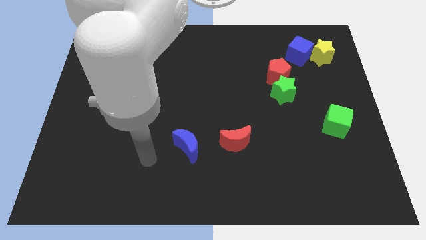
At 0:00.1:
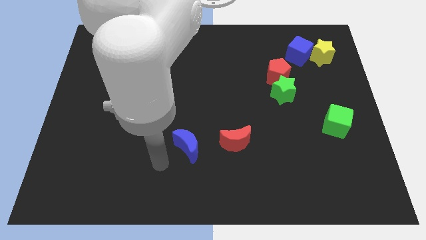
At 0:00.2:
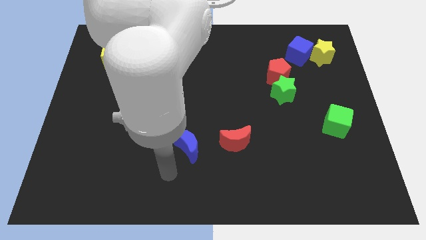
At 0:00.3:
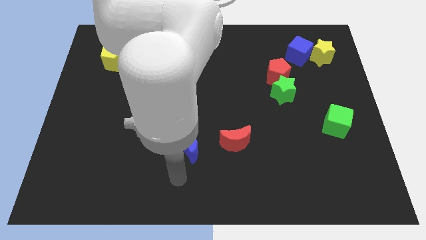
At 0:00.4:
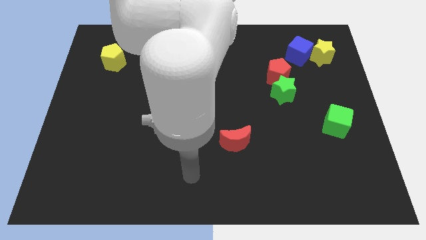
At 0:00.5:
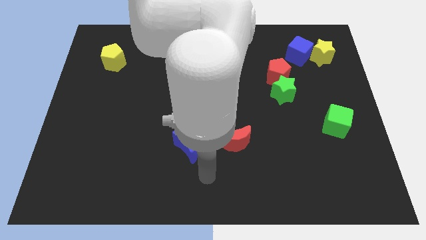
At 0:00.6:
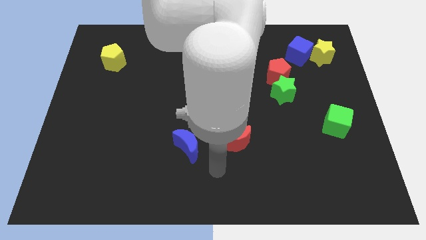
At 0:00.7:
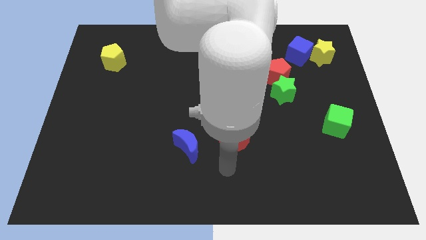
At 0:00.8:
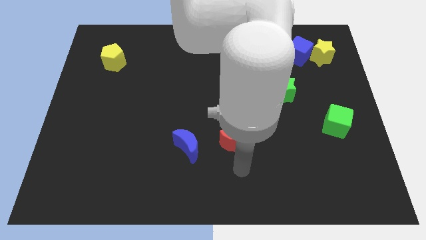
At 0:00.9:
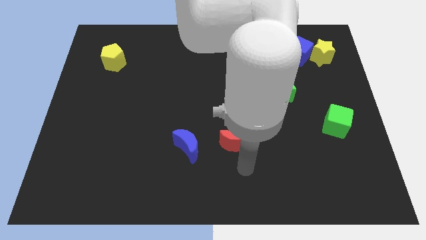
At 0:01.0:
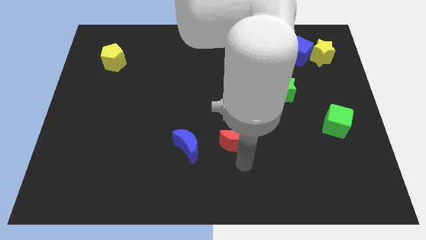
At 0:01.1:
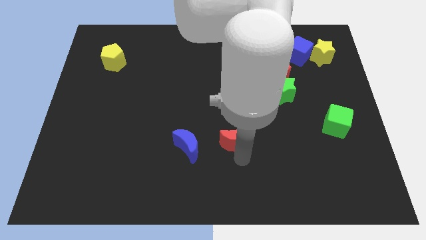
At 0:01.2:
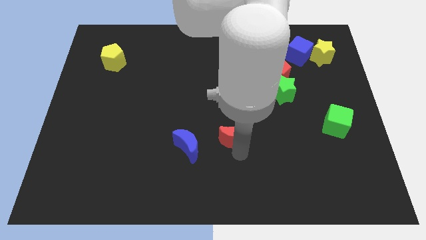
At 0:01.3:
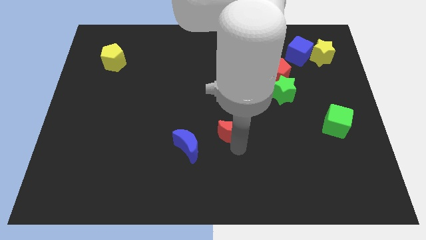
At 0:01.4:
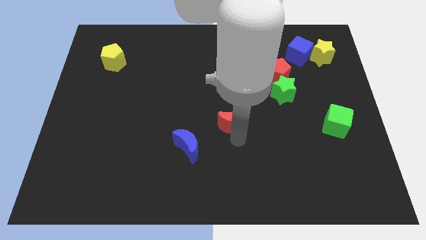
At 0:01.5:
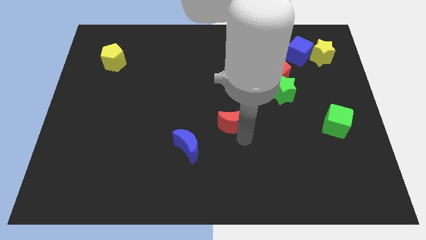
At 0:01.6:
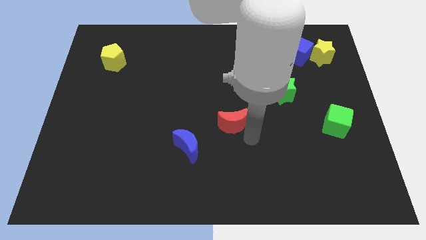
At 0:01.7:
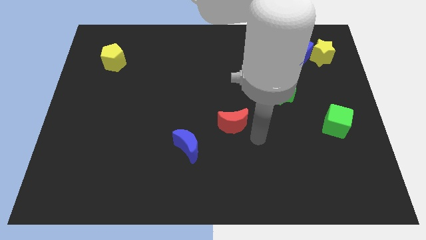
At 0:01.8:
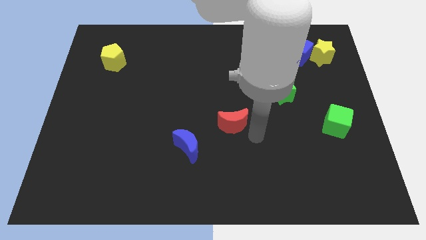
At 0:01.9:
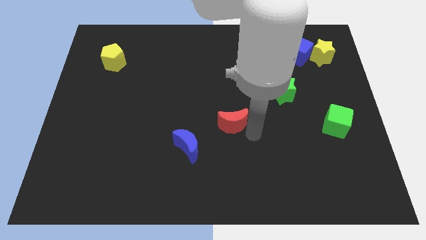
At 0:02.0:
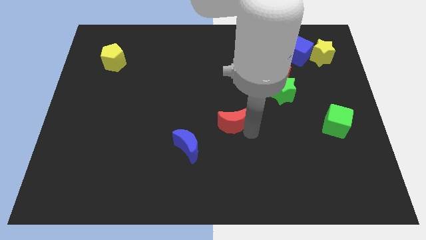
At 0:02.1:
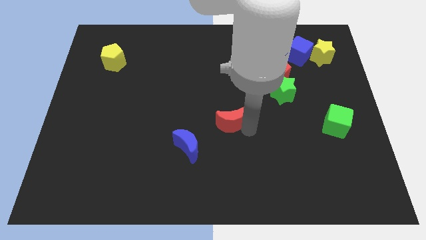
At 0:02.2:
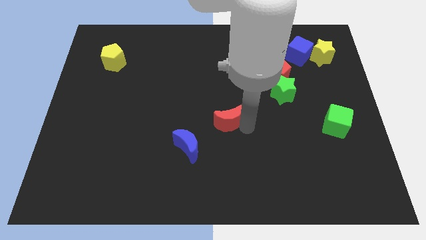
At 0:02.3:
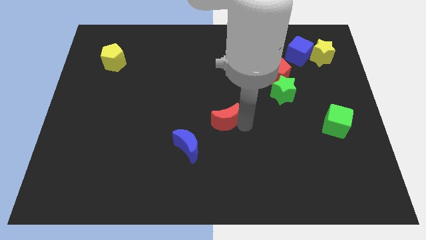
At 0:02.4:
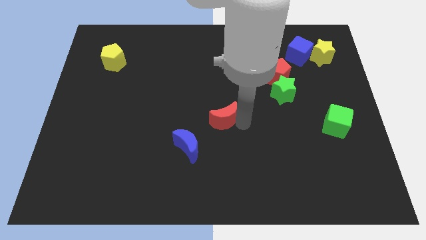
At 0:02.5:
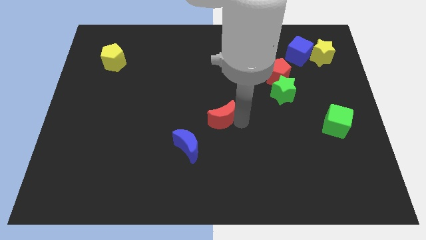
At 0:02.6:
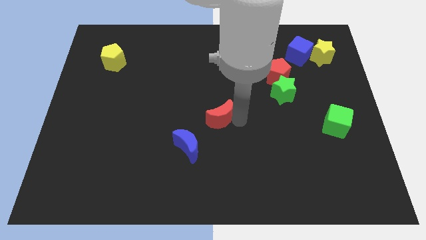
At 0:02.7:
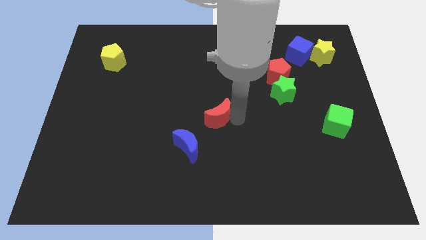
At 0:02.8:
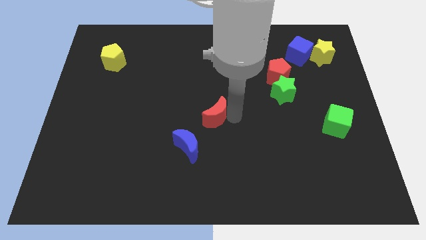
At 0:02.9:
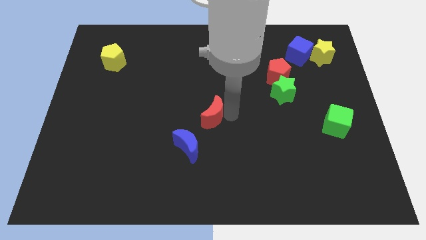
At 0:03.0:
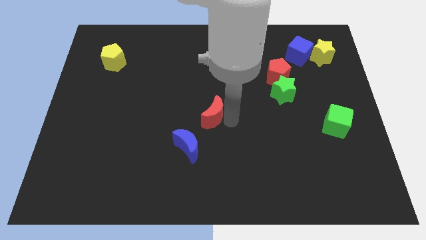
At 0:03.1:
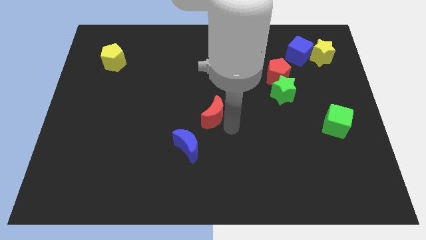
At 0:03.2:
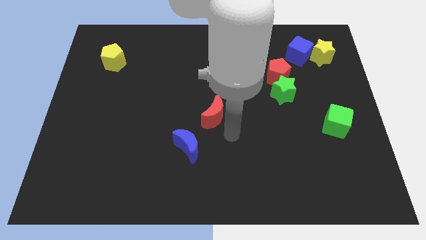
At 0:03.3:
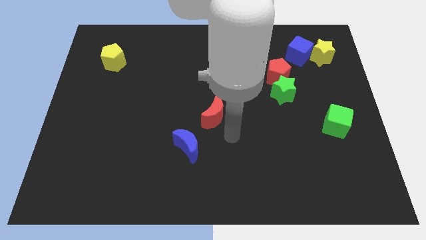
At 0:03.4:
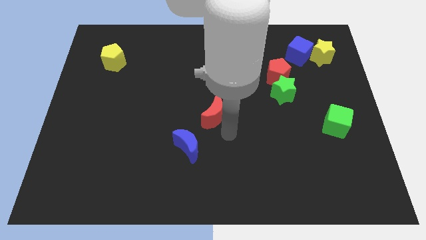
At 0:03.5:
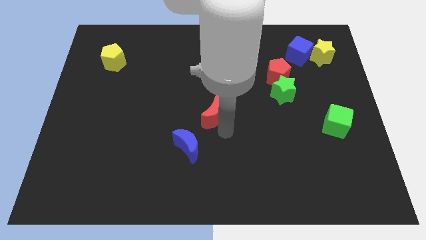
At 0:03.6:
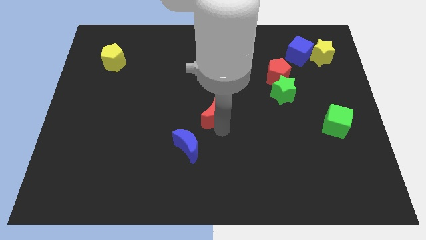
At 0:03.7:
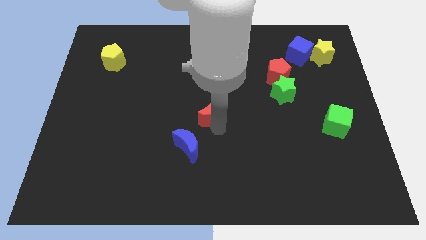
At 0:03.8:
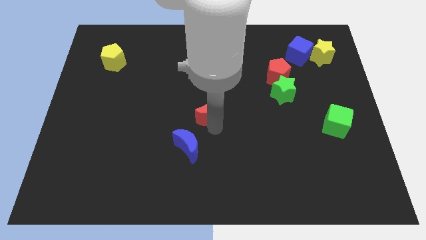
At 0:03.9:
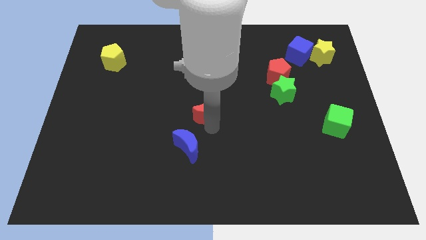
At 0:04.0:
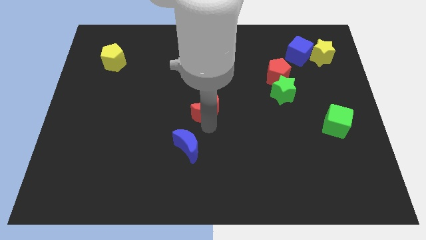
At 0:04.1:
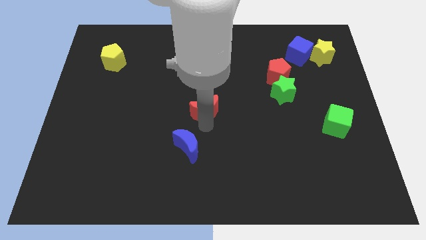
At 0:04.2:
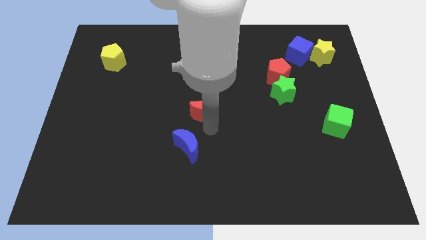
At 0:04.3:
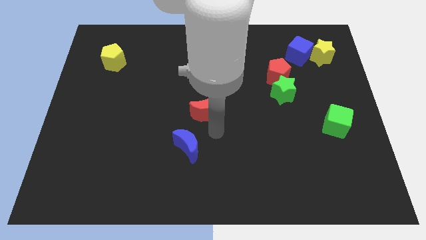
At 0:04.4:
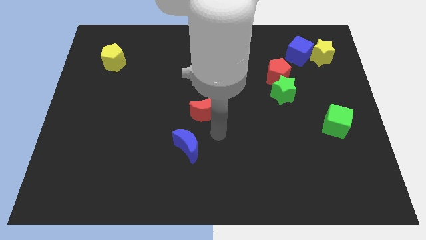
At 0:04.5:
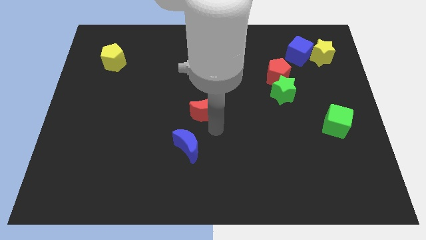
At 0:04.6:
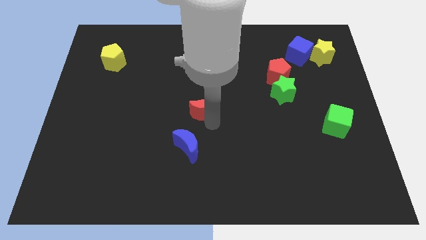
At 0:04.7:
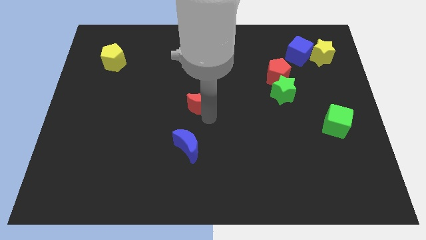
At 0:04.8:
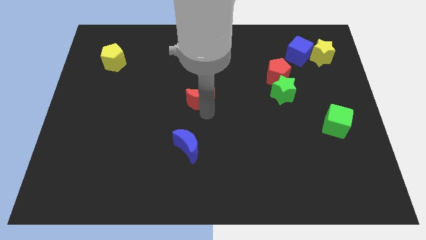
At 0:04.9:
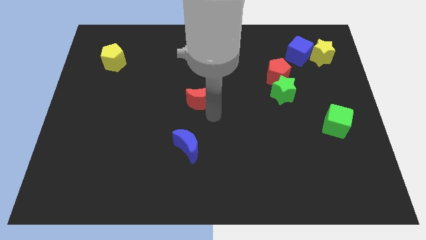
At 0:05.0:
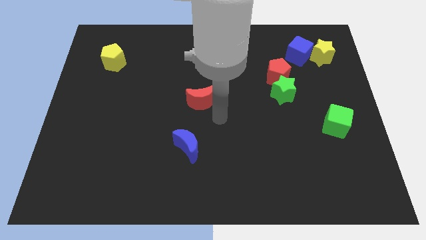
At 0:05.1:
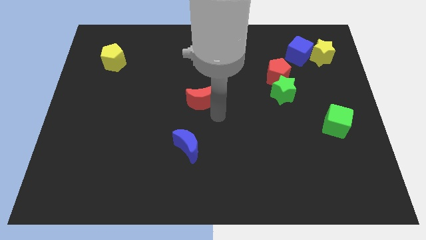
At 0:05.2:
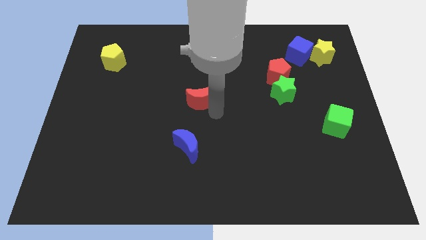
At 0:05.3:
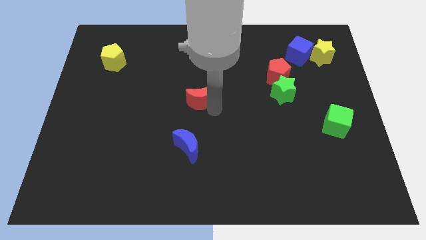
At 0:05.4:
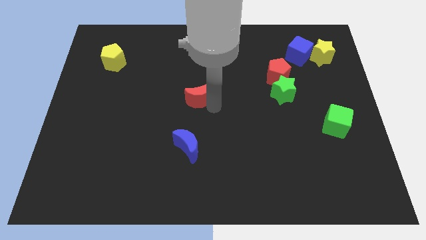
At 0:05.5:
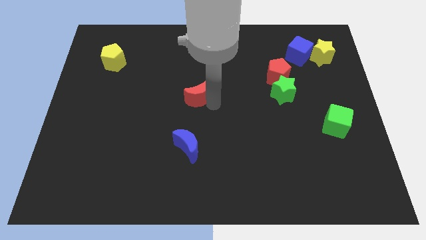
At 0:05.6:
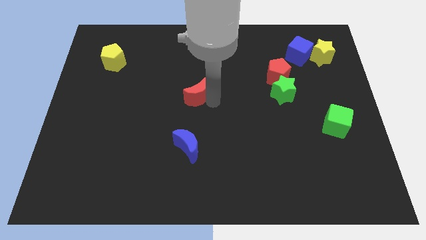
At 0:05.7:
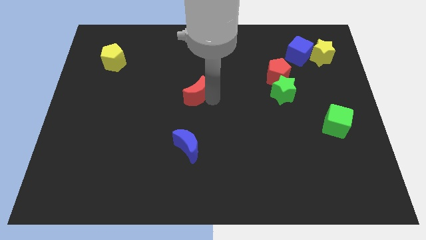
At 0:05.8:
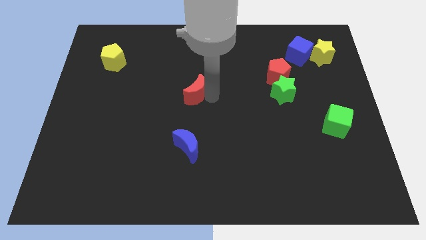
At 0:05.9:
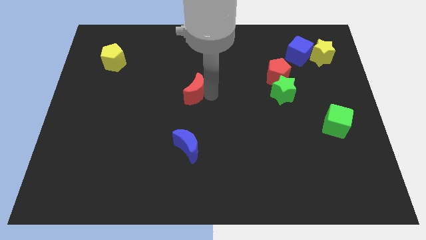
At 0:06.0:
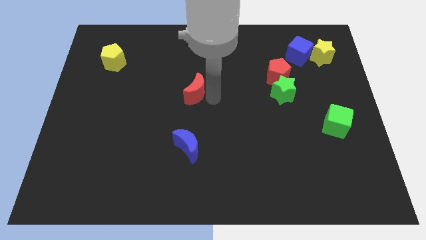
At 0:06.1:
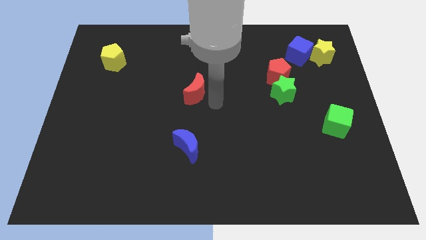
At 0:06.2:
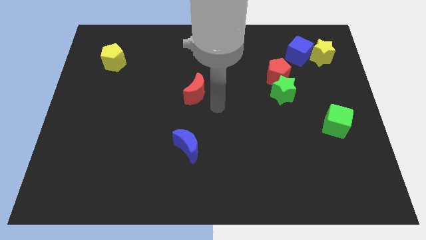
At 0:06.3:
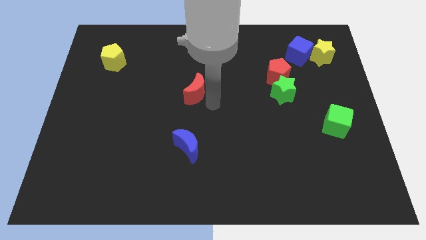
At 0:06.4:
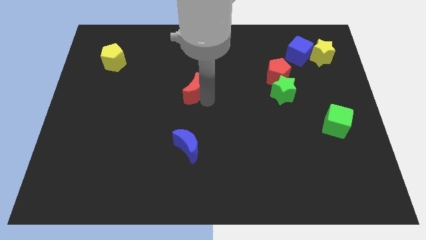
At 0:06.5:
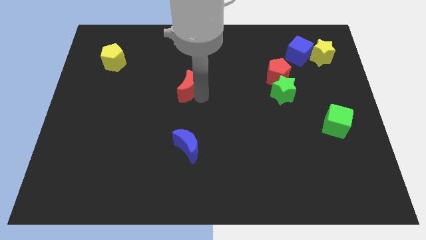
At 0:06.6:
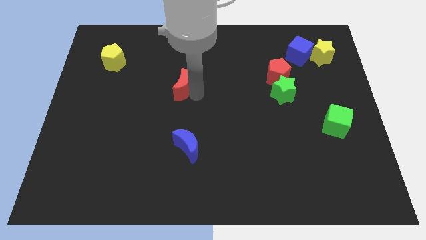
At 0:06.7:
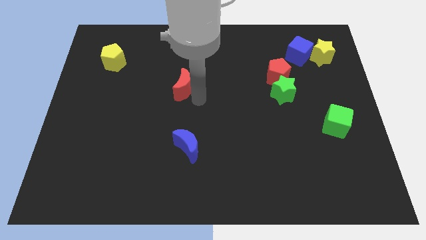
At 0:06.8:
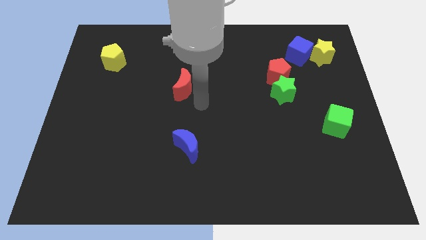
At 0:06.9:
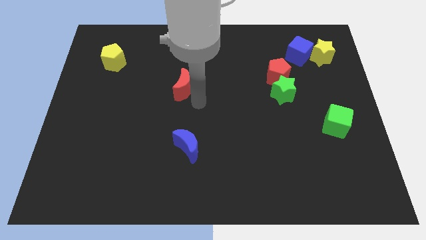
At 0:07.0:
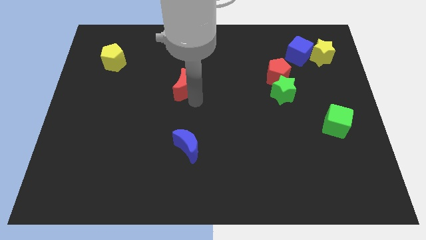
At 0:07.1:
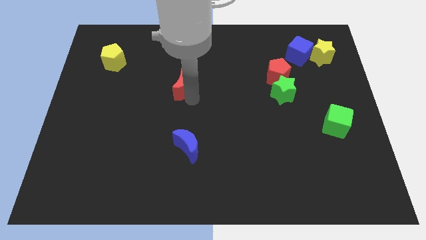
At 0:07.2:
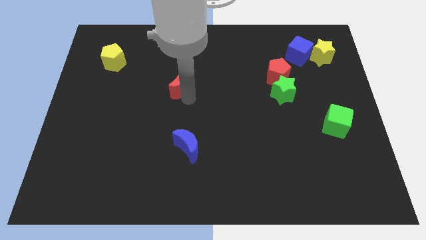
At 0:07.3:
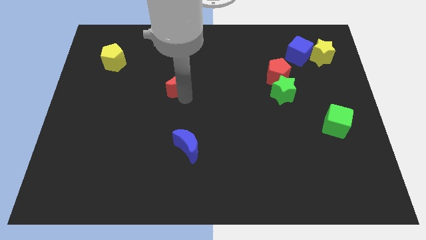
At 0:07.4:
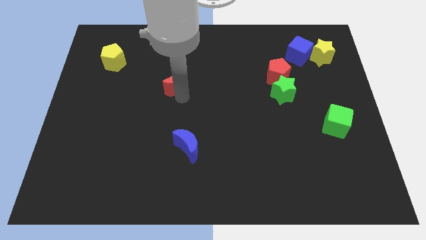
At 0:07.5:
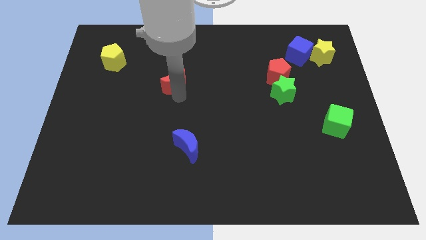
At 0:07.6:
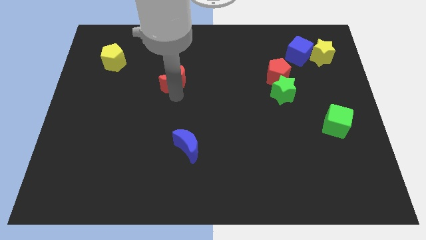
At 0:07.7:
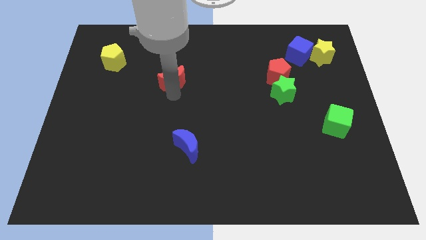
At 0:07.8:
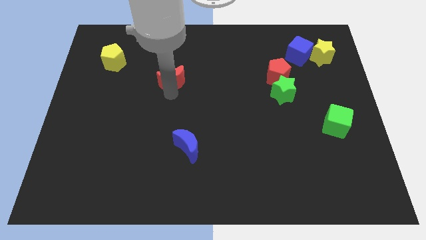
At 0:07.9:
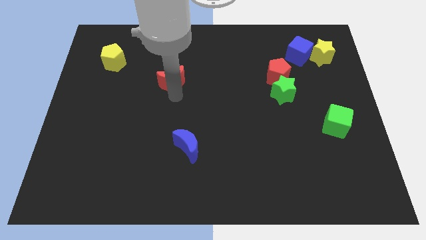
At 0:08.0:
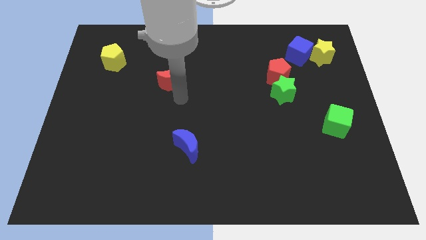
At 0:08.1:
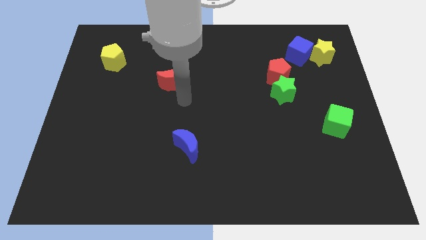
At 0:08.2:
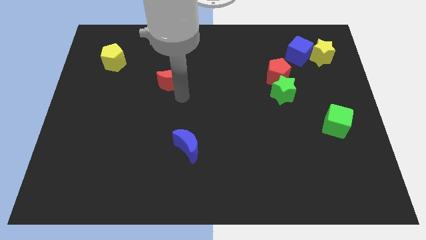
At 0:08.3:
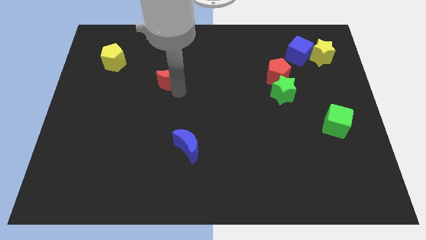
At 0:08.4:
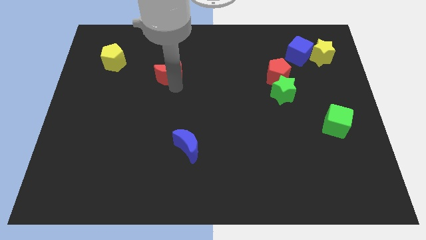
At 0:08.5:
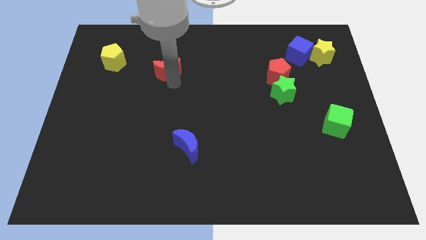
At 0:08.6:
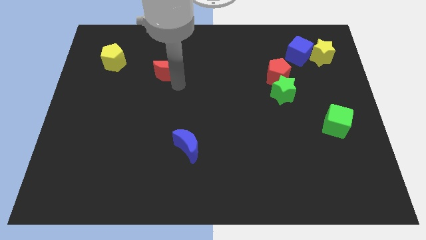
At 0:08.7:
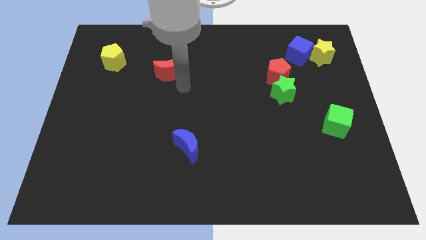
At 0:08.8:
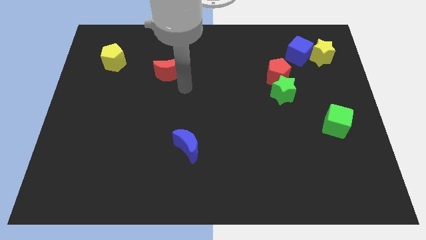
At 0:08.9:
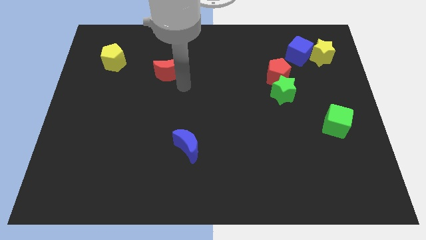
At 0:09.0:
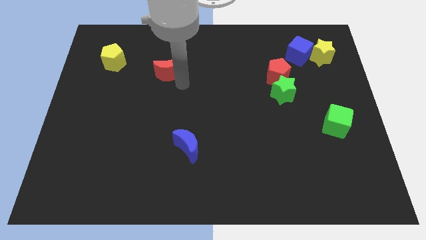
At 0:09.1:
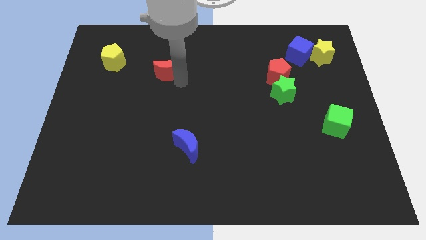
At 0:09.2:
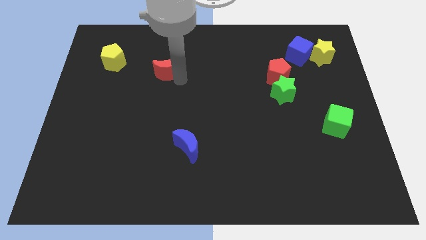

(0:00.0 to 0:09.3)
move the red moon right of the yellow pentagon
